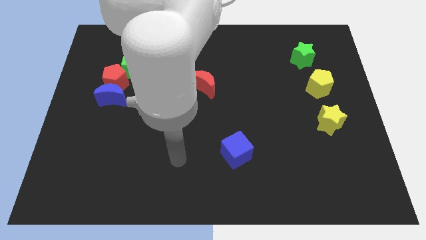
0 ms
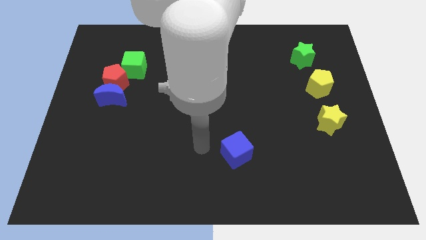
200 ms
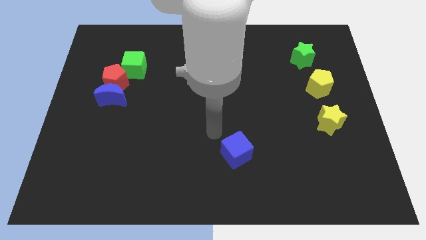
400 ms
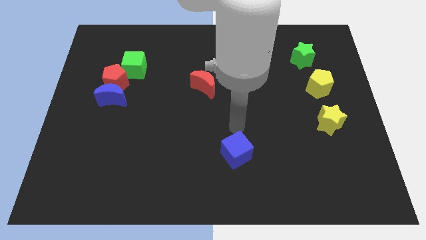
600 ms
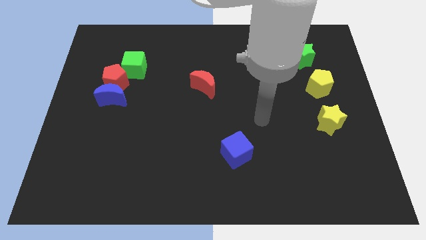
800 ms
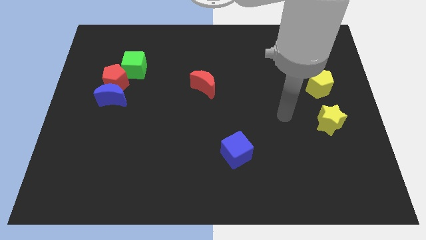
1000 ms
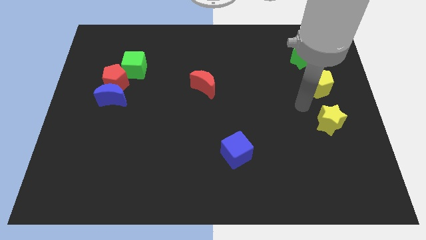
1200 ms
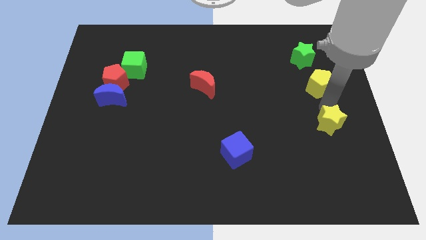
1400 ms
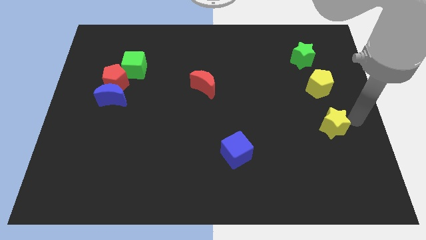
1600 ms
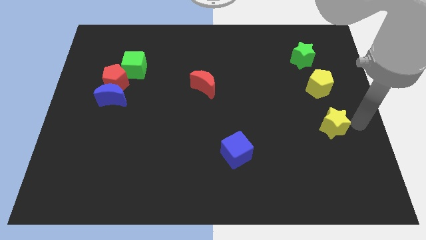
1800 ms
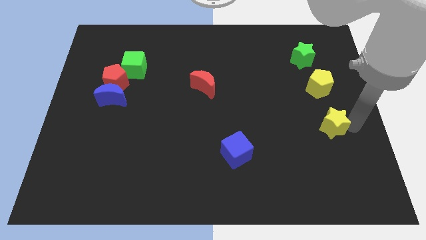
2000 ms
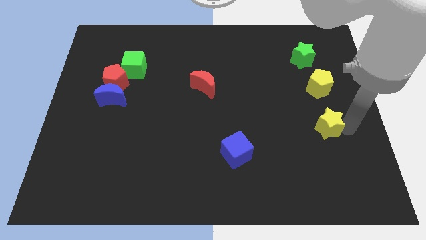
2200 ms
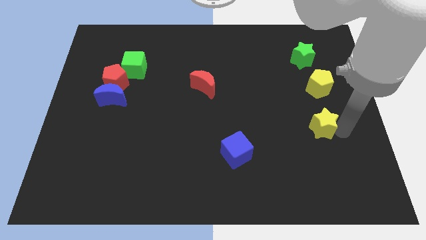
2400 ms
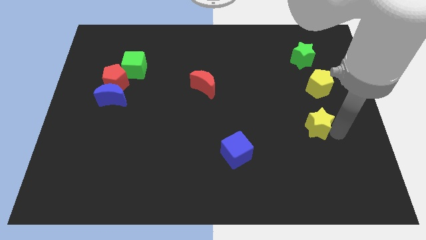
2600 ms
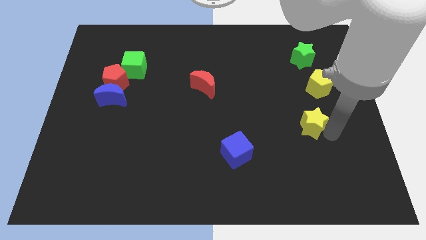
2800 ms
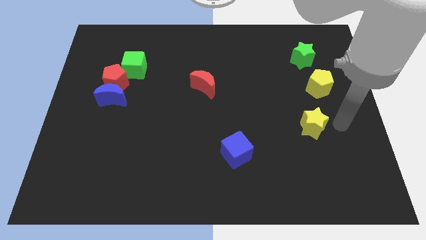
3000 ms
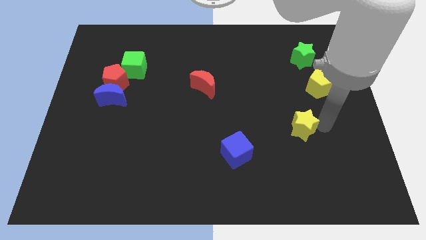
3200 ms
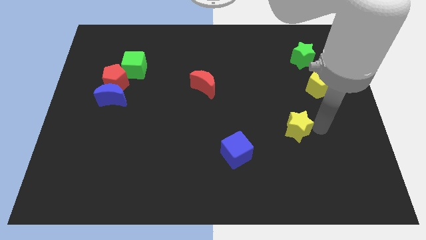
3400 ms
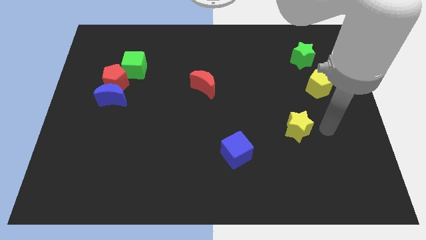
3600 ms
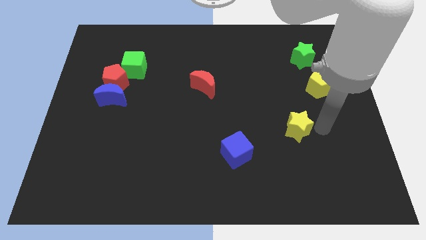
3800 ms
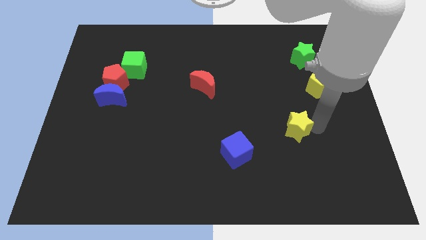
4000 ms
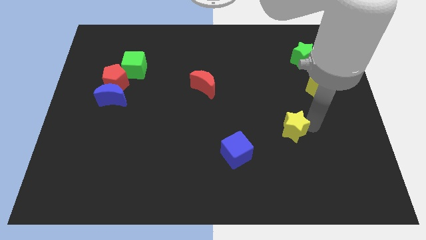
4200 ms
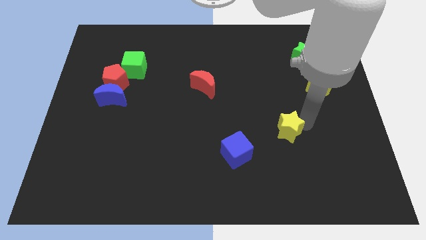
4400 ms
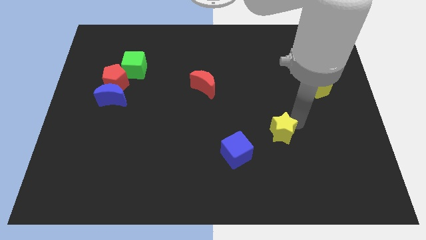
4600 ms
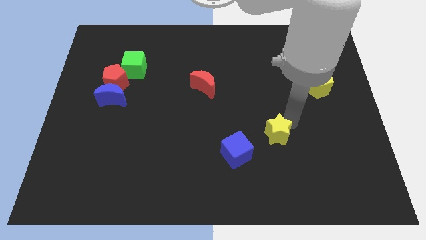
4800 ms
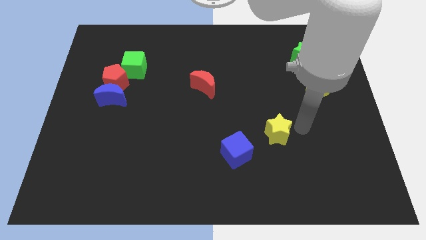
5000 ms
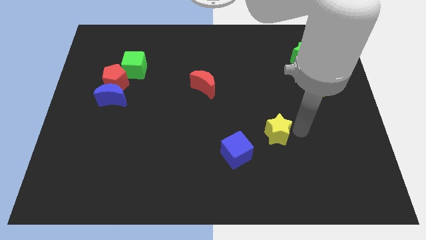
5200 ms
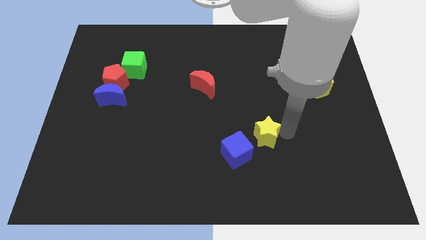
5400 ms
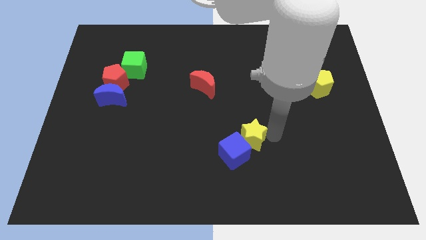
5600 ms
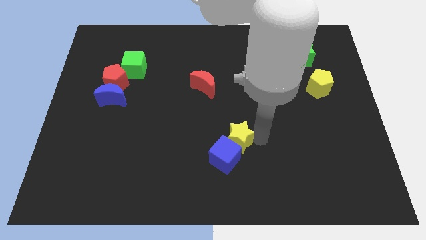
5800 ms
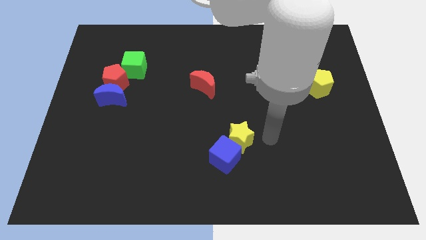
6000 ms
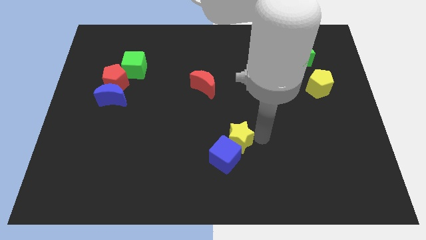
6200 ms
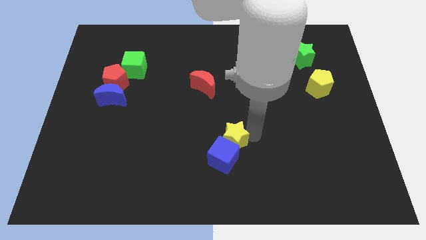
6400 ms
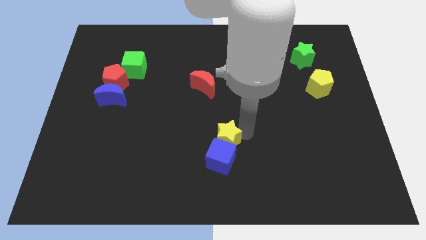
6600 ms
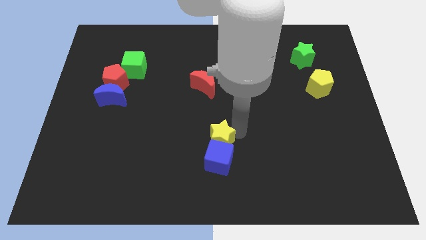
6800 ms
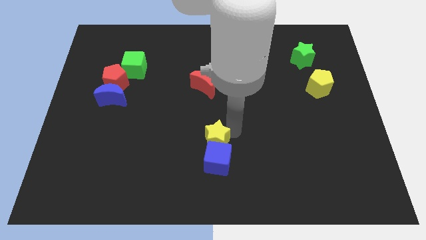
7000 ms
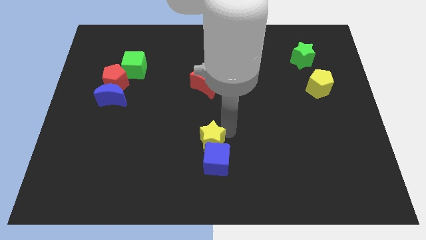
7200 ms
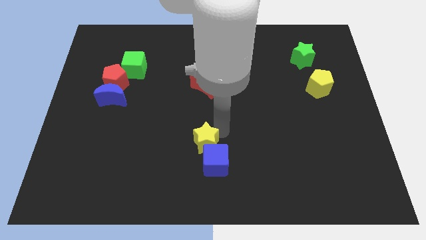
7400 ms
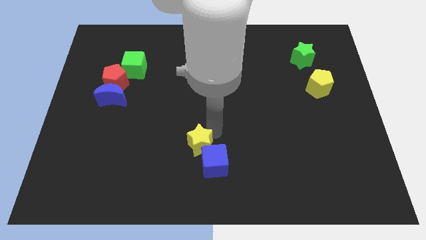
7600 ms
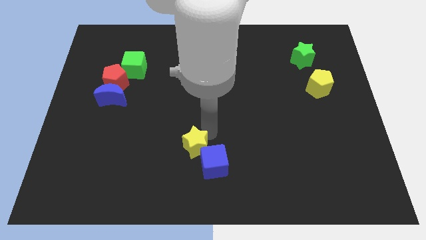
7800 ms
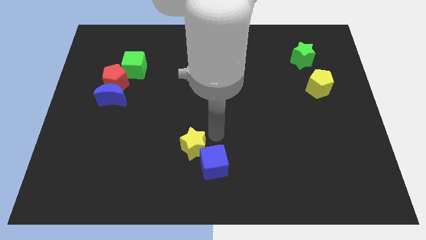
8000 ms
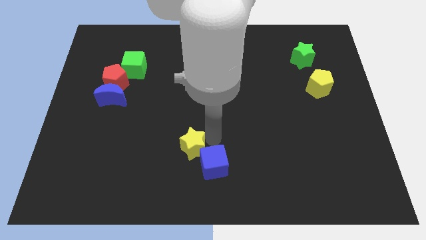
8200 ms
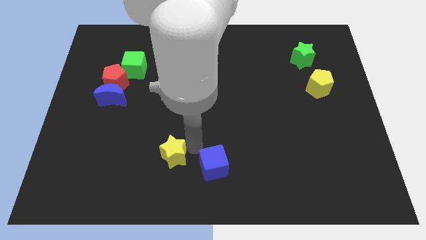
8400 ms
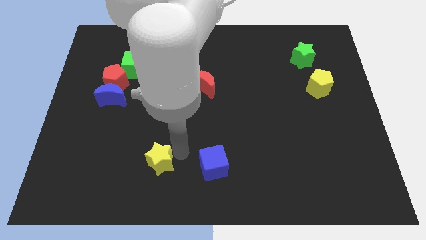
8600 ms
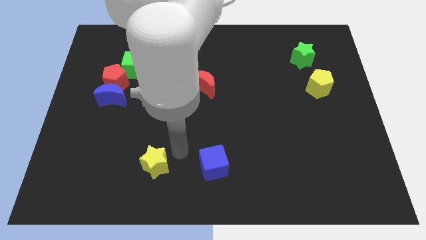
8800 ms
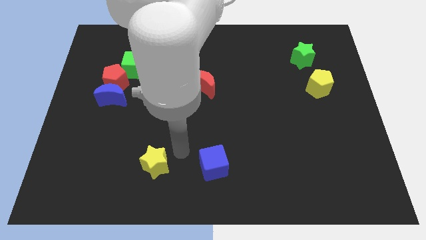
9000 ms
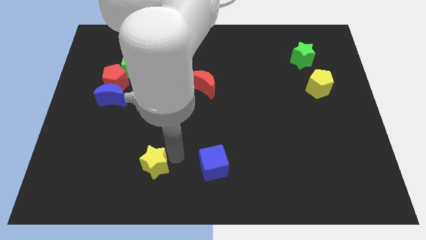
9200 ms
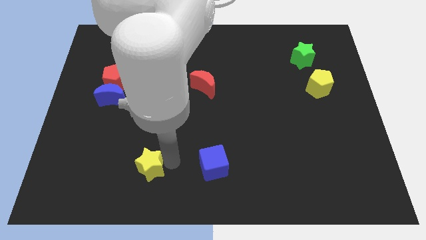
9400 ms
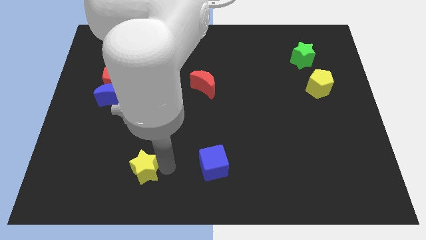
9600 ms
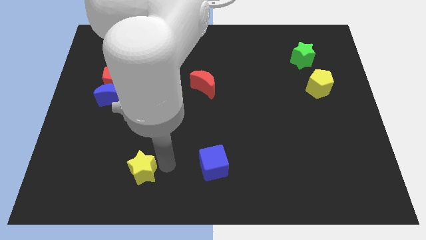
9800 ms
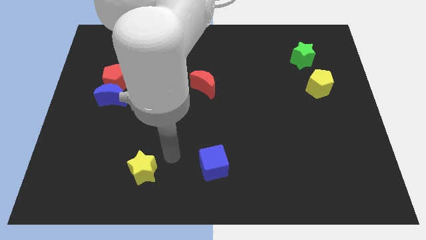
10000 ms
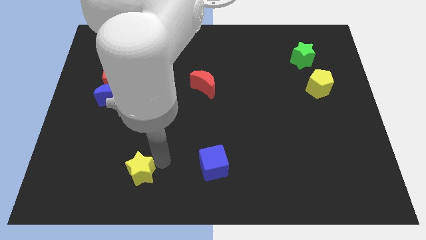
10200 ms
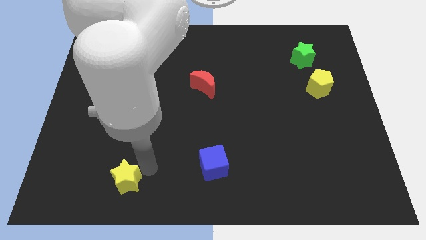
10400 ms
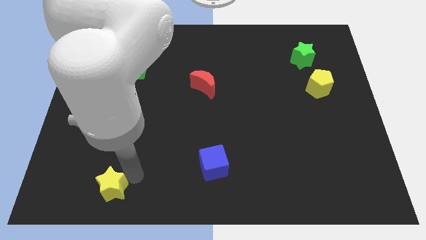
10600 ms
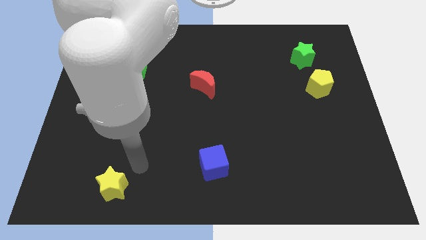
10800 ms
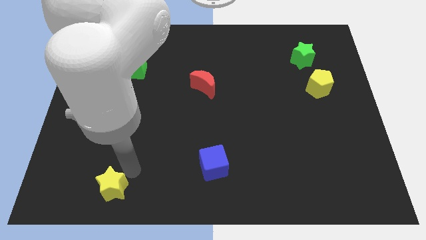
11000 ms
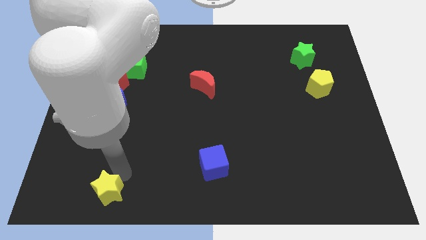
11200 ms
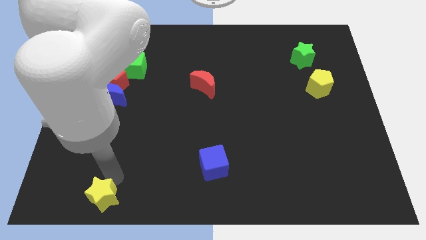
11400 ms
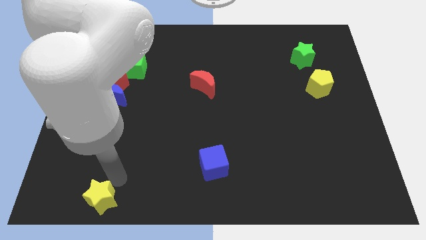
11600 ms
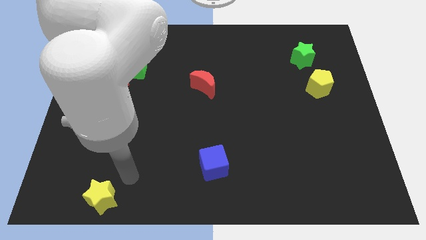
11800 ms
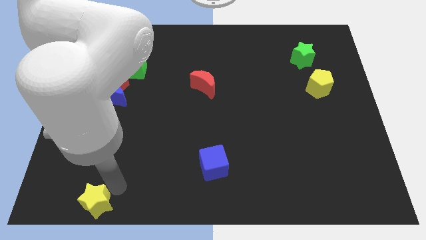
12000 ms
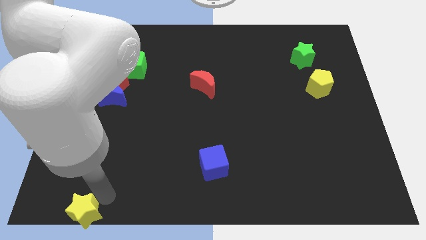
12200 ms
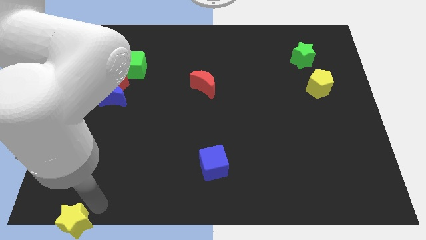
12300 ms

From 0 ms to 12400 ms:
move the yellow star to the bottom left corner

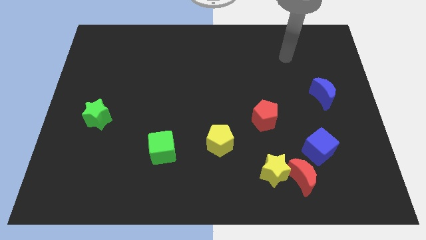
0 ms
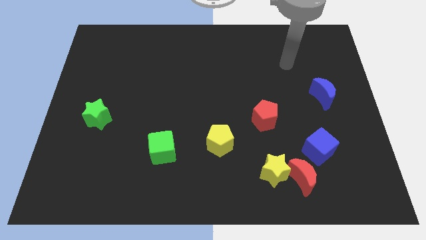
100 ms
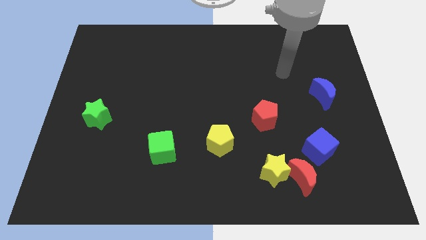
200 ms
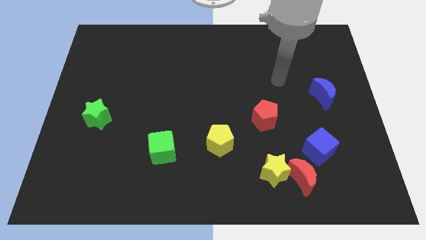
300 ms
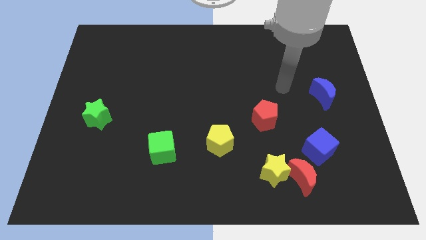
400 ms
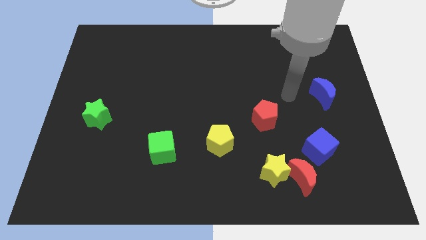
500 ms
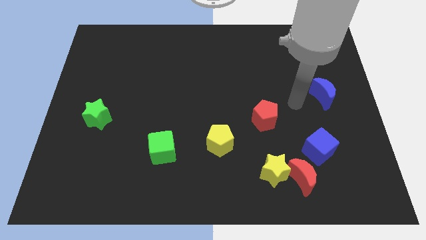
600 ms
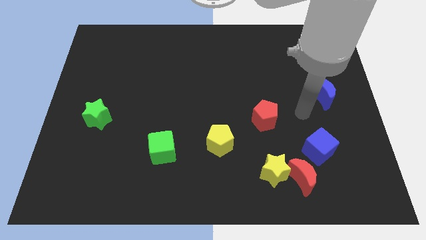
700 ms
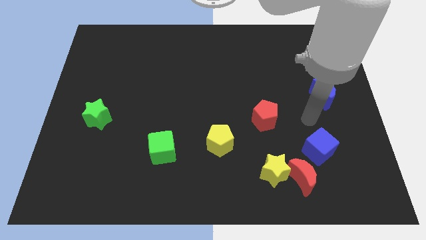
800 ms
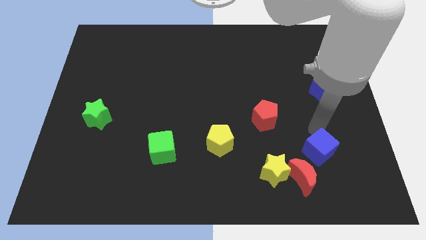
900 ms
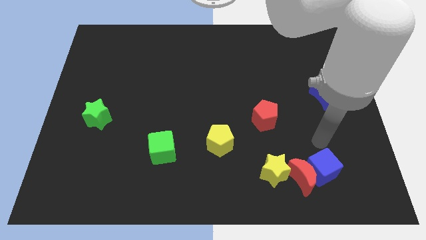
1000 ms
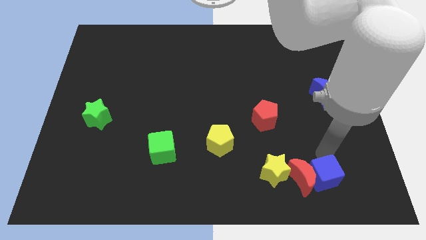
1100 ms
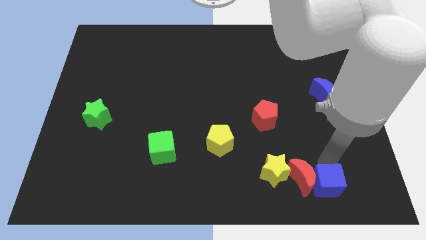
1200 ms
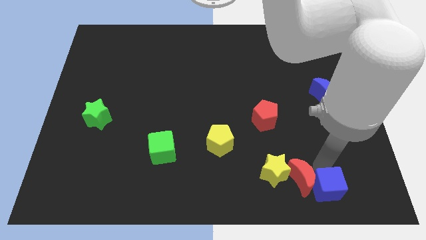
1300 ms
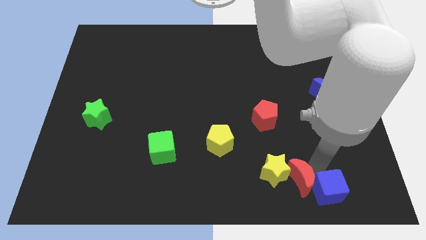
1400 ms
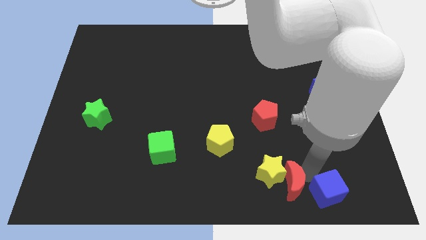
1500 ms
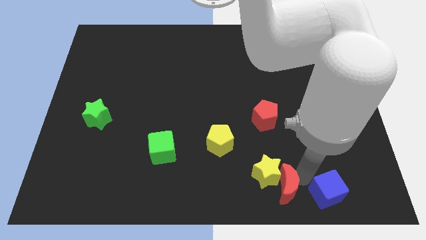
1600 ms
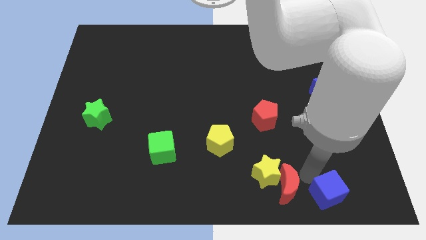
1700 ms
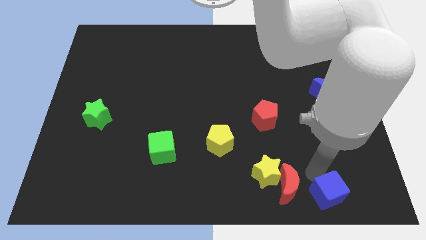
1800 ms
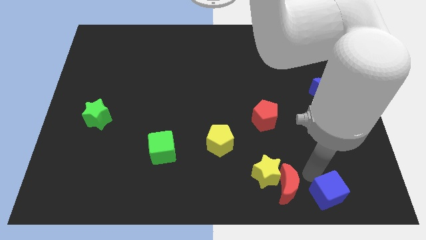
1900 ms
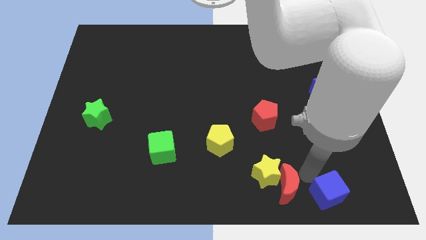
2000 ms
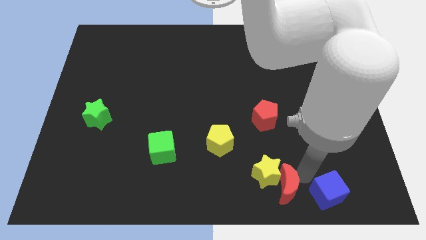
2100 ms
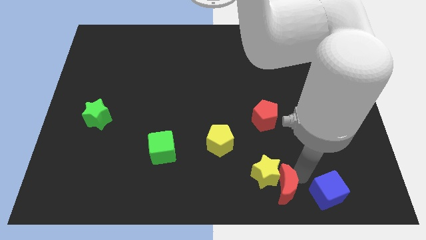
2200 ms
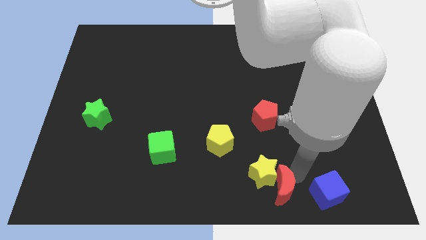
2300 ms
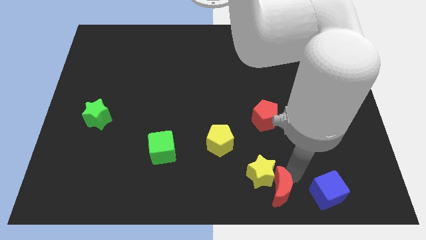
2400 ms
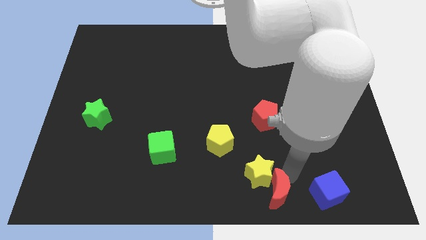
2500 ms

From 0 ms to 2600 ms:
slide the red moon to the bottom

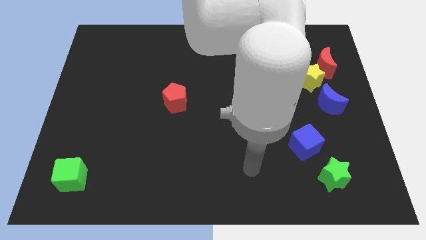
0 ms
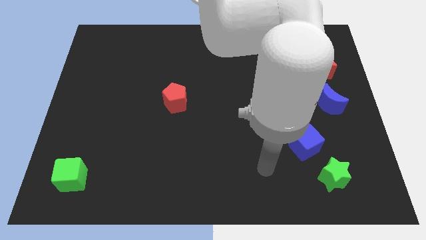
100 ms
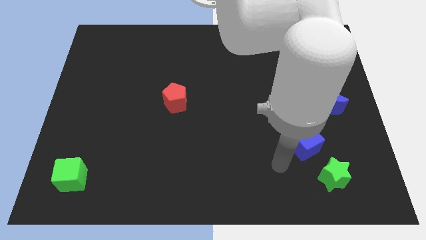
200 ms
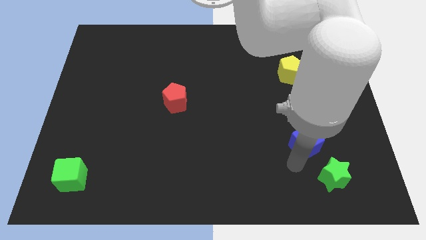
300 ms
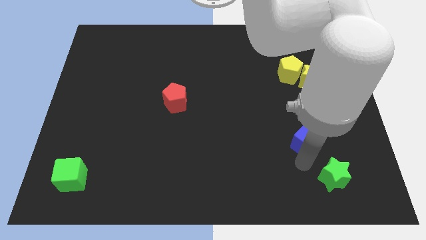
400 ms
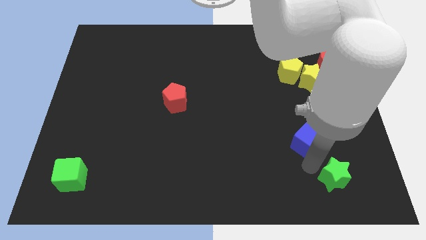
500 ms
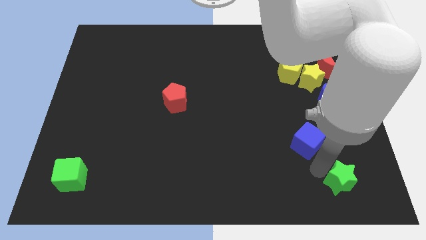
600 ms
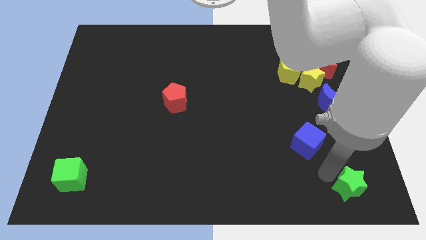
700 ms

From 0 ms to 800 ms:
put the green star to the bottom right
